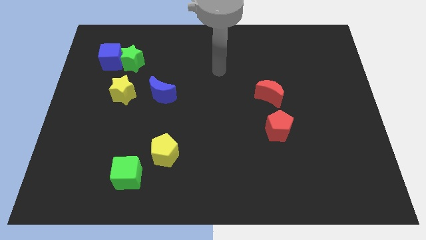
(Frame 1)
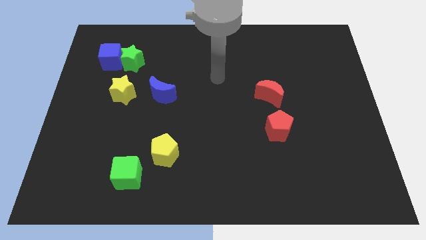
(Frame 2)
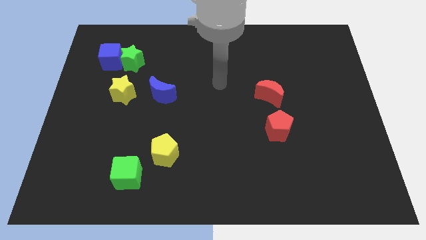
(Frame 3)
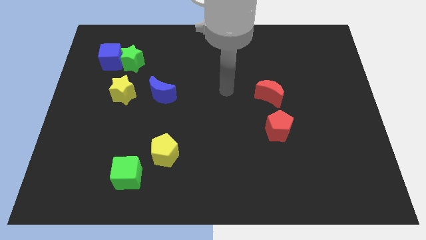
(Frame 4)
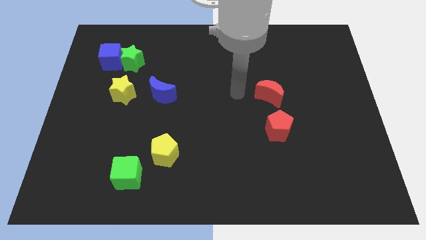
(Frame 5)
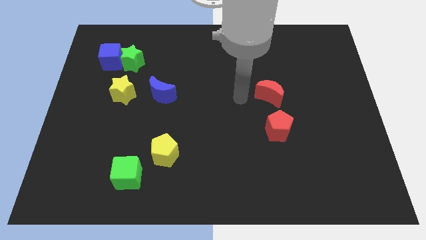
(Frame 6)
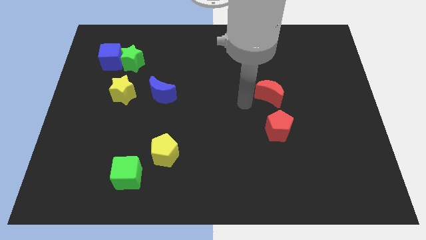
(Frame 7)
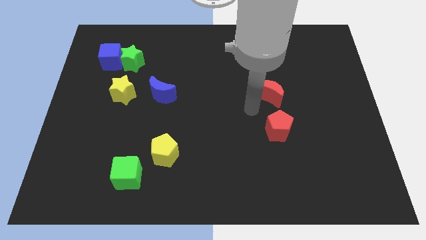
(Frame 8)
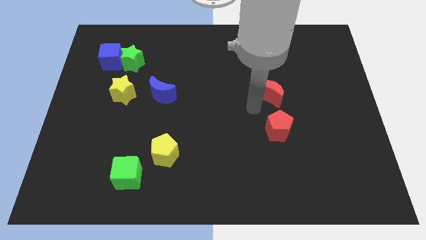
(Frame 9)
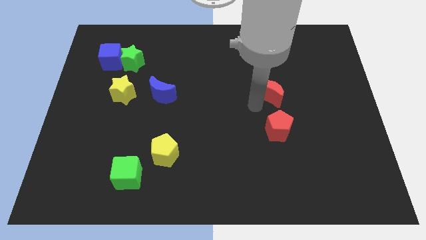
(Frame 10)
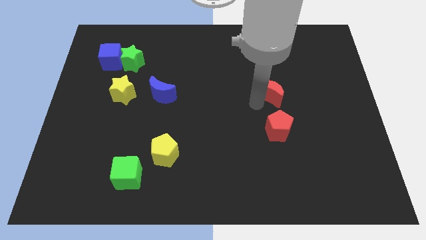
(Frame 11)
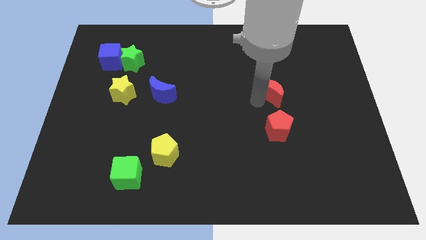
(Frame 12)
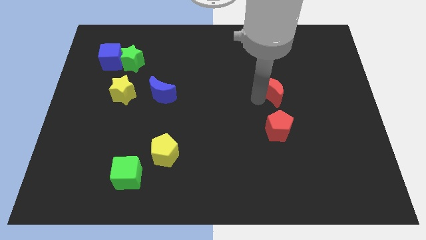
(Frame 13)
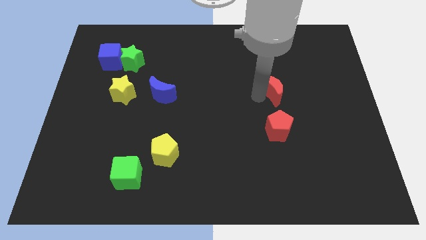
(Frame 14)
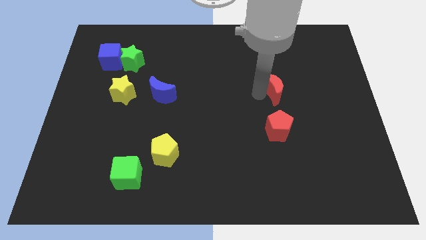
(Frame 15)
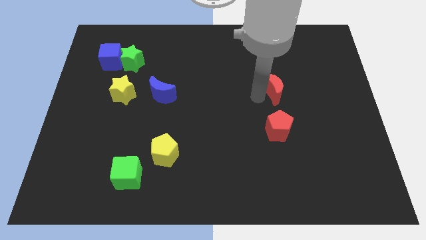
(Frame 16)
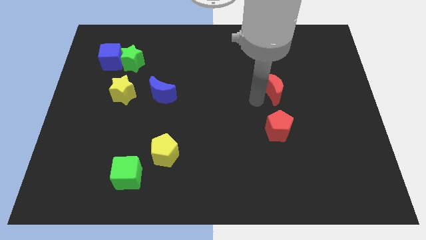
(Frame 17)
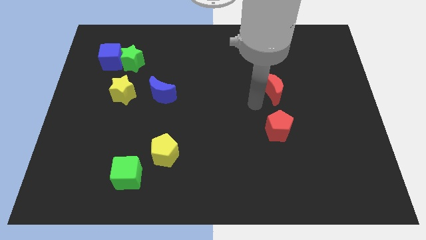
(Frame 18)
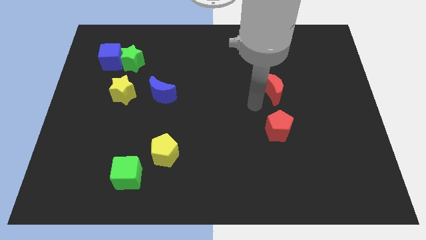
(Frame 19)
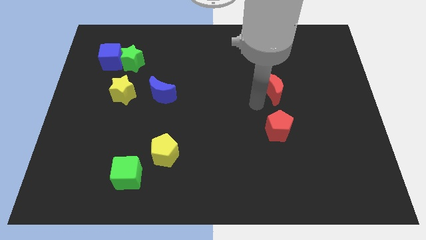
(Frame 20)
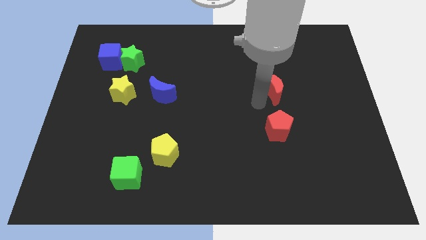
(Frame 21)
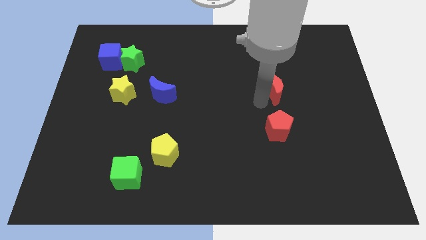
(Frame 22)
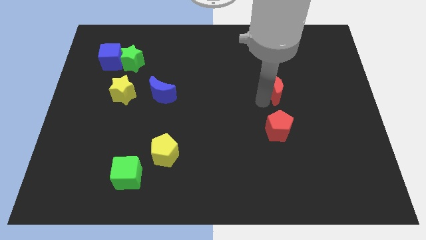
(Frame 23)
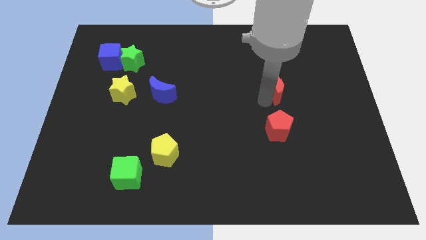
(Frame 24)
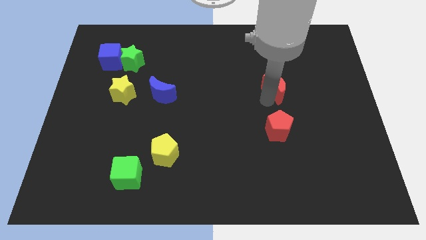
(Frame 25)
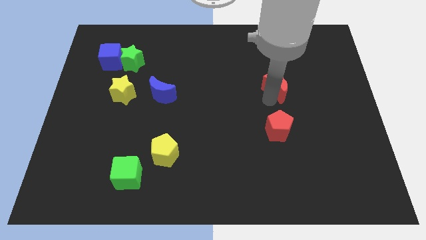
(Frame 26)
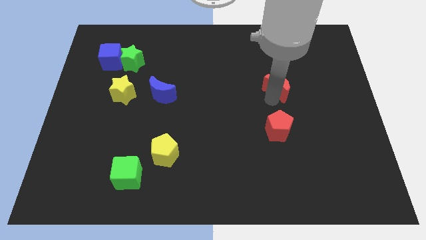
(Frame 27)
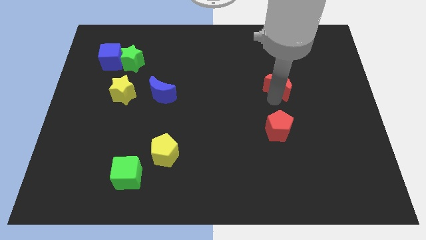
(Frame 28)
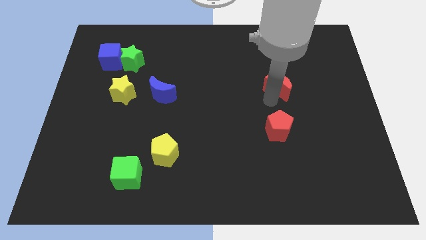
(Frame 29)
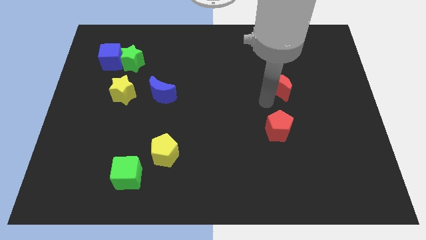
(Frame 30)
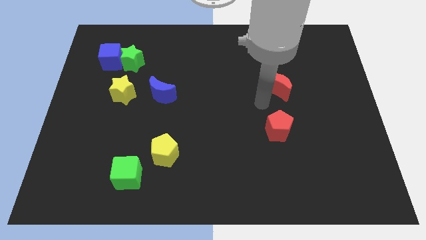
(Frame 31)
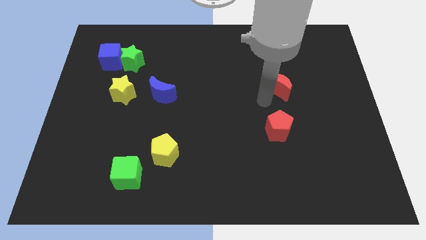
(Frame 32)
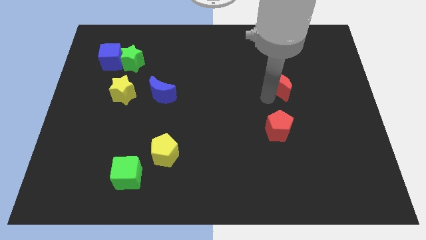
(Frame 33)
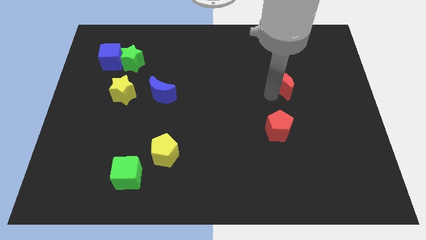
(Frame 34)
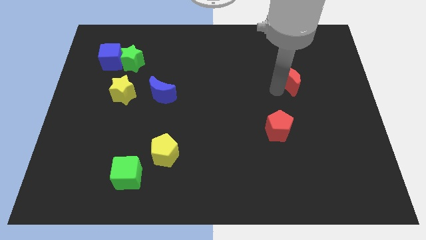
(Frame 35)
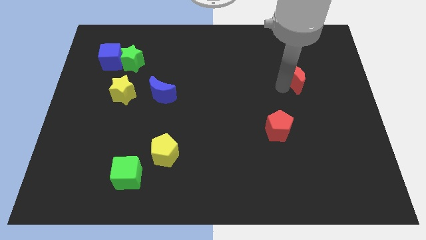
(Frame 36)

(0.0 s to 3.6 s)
slightly slide the red moon up and to the right

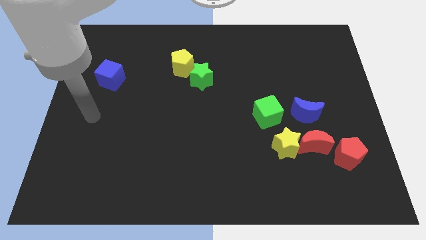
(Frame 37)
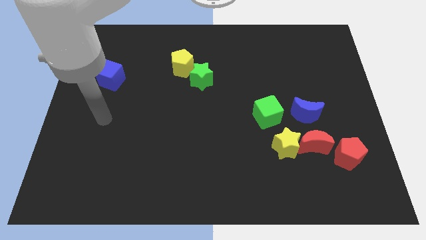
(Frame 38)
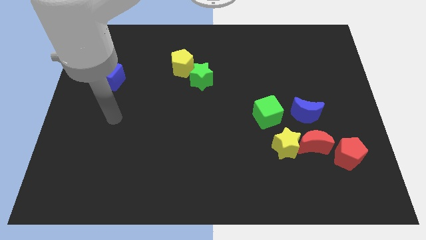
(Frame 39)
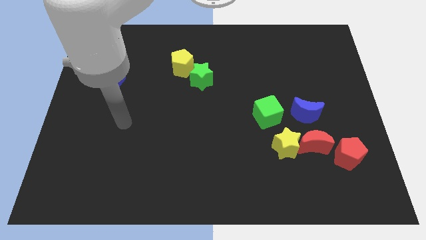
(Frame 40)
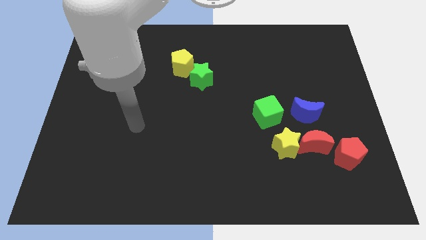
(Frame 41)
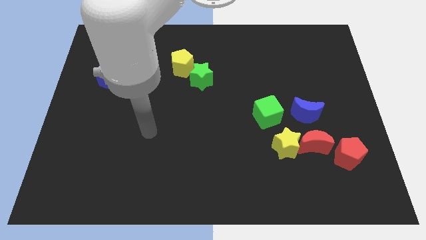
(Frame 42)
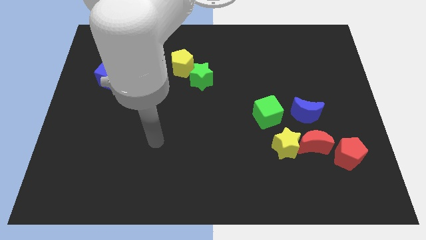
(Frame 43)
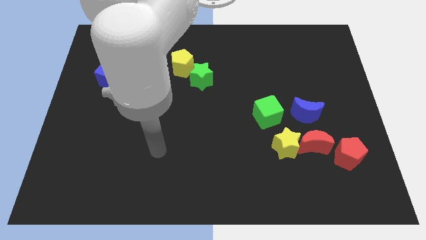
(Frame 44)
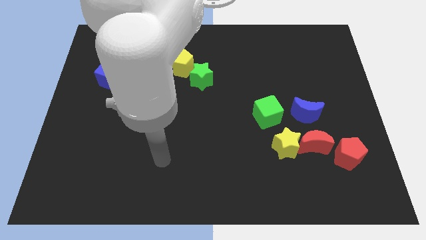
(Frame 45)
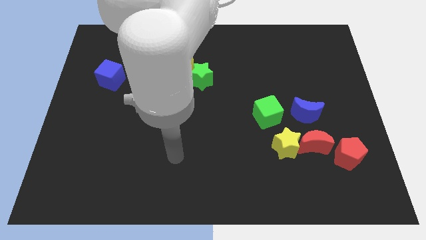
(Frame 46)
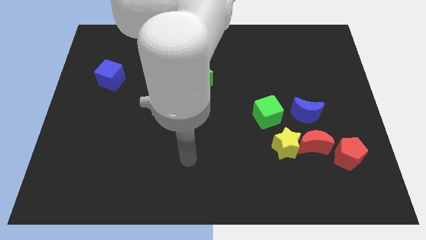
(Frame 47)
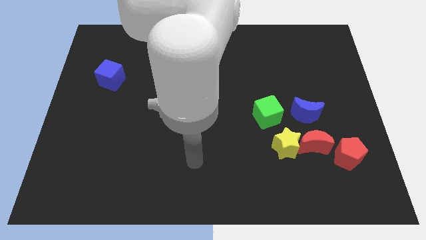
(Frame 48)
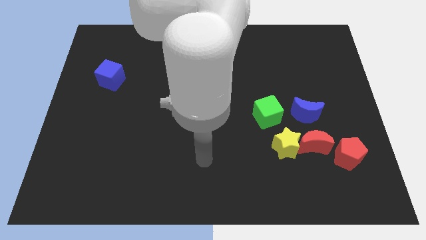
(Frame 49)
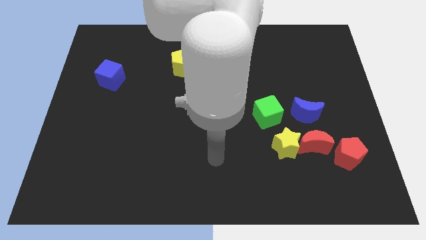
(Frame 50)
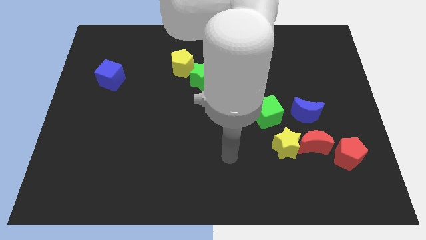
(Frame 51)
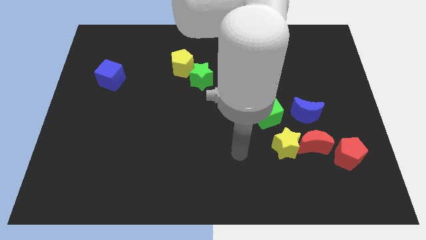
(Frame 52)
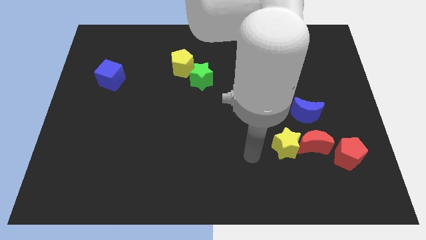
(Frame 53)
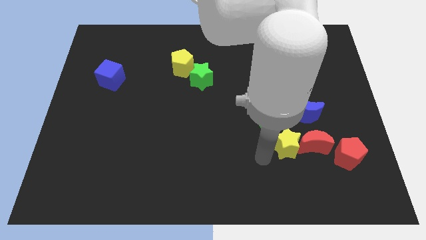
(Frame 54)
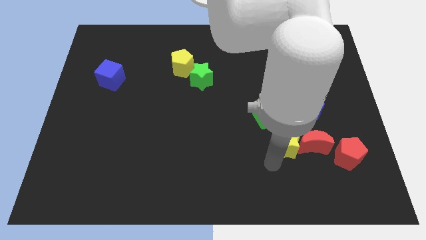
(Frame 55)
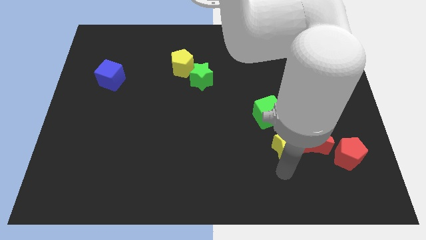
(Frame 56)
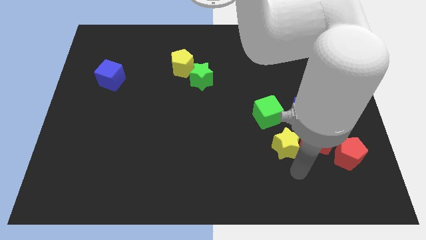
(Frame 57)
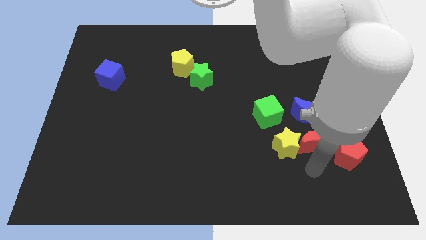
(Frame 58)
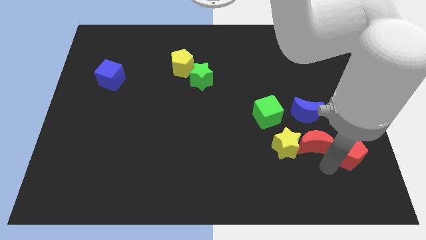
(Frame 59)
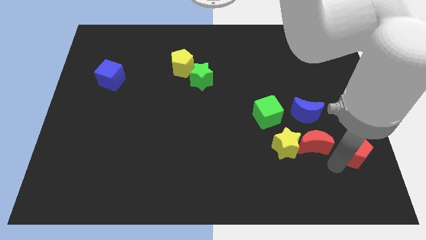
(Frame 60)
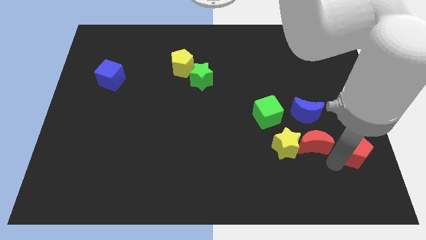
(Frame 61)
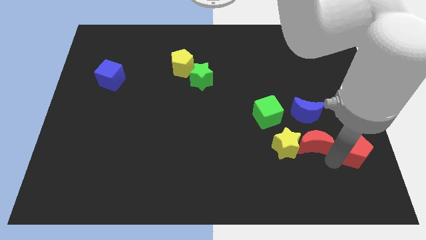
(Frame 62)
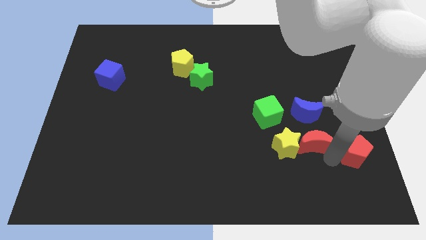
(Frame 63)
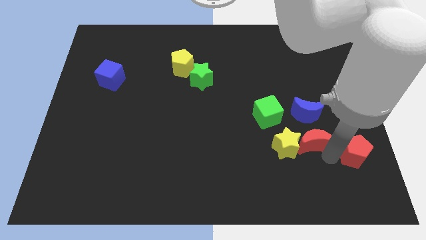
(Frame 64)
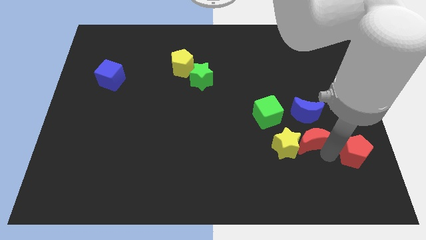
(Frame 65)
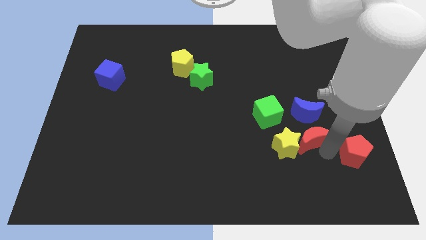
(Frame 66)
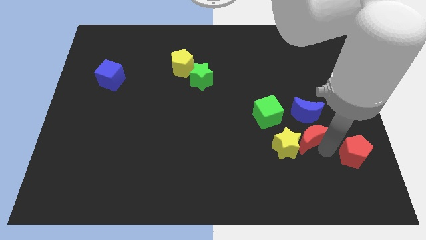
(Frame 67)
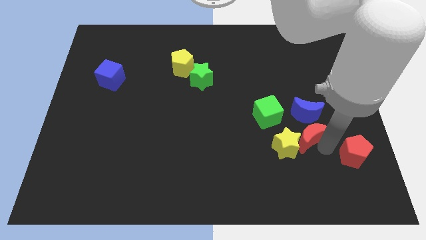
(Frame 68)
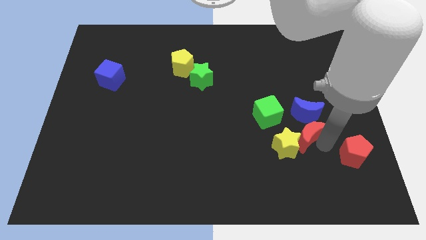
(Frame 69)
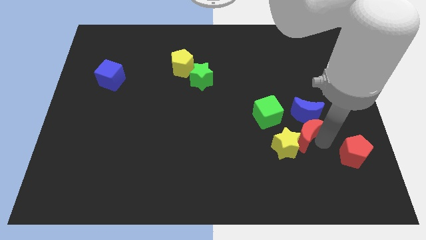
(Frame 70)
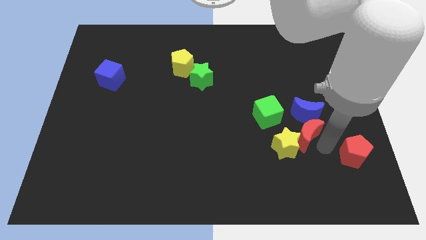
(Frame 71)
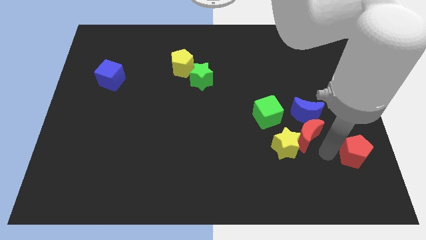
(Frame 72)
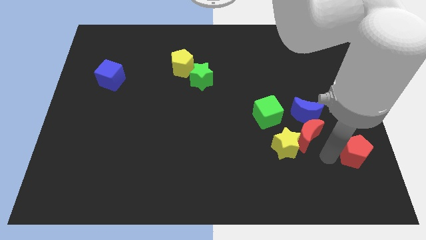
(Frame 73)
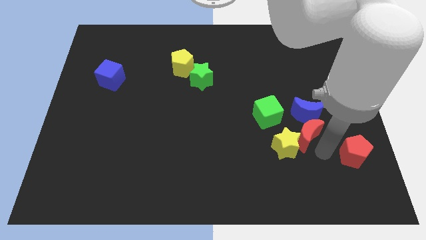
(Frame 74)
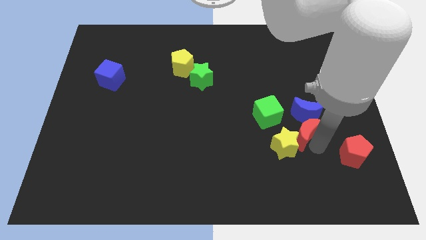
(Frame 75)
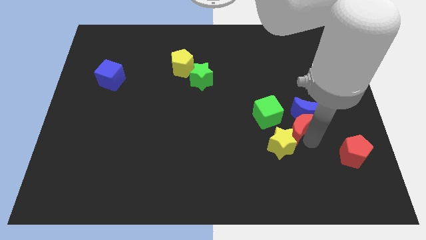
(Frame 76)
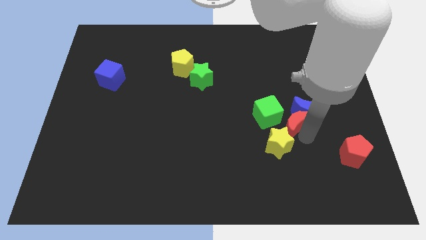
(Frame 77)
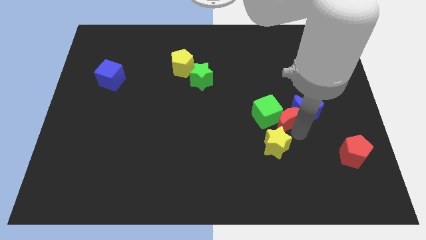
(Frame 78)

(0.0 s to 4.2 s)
move the red moon a little bit upwards and left diagonally

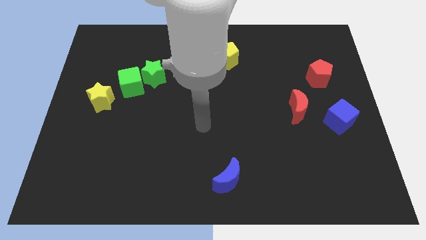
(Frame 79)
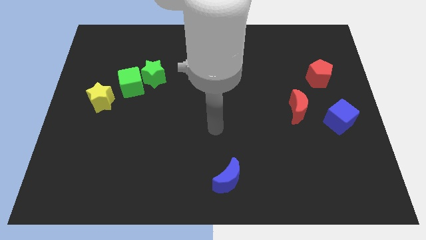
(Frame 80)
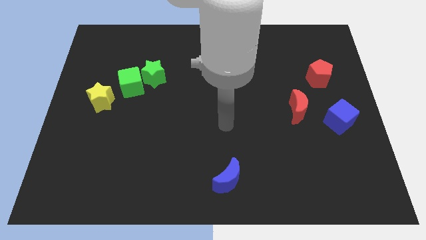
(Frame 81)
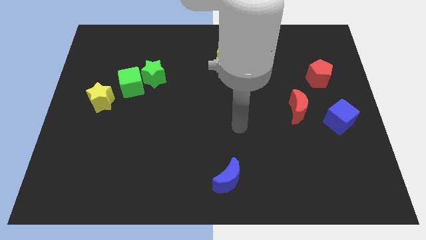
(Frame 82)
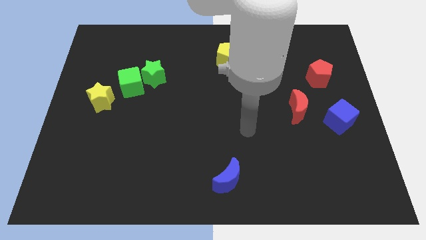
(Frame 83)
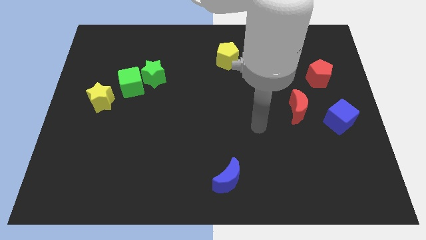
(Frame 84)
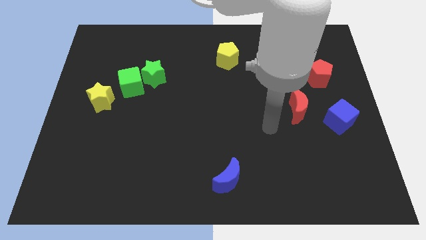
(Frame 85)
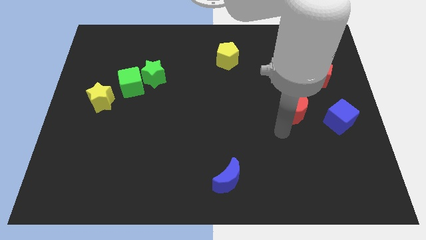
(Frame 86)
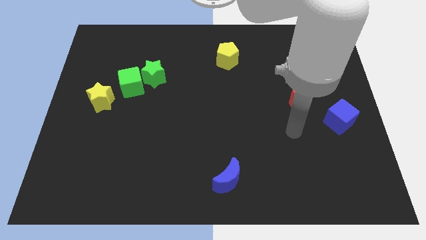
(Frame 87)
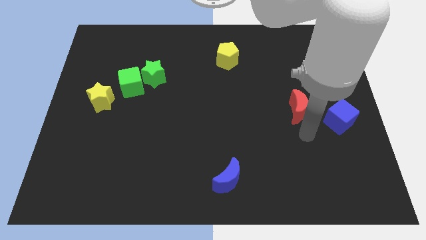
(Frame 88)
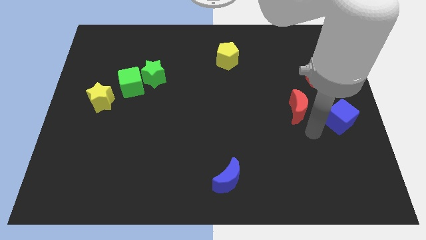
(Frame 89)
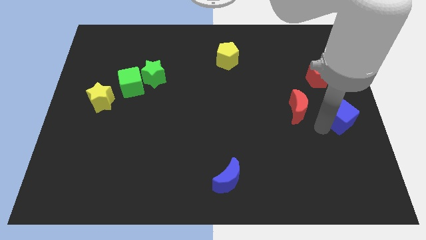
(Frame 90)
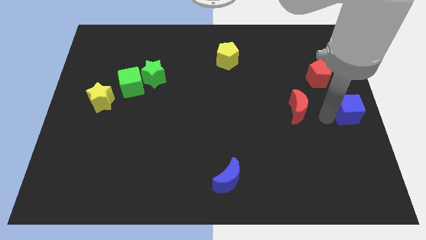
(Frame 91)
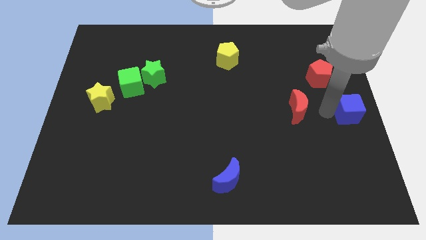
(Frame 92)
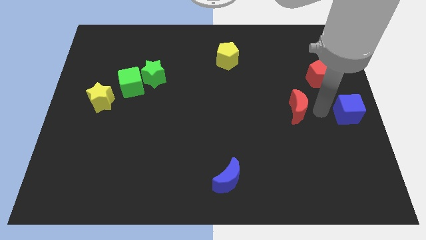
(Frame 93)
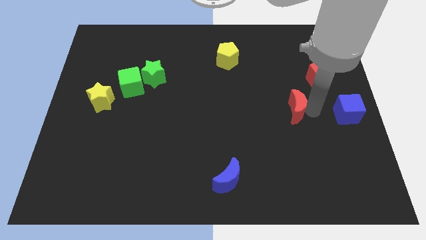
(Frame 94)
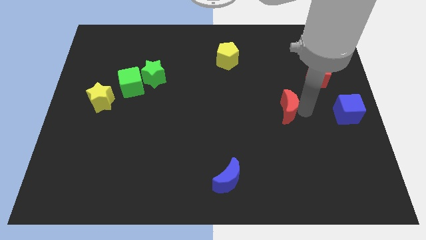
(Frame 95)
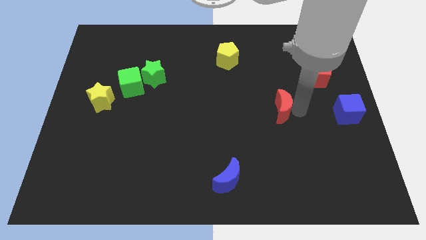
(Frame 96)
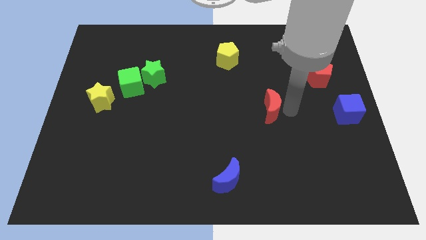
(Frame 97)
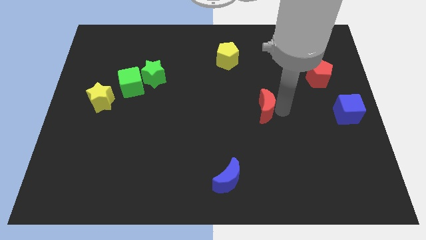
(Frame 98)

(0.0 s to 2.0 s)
push the red moon a little left
